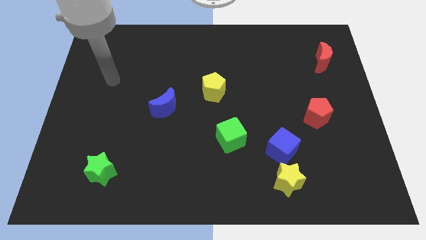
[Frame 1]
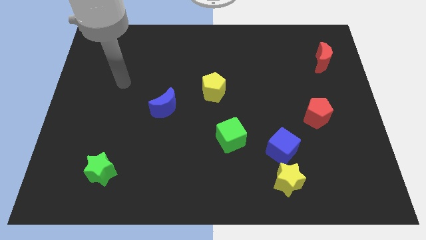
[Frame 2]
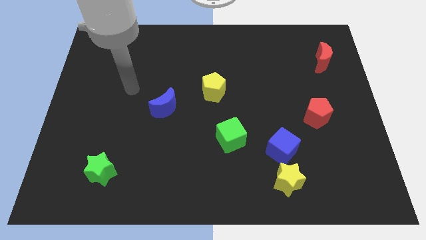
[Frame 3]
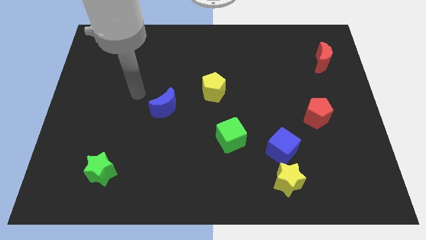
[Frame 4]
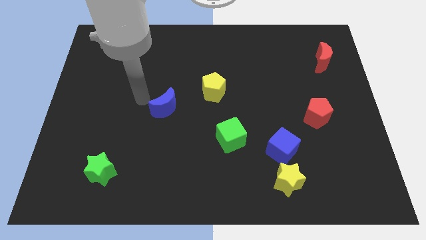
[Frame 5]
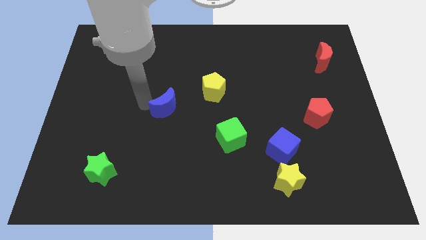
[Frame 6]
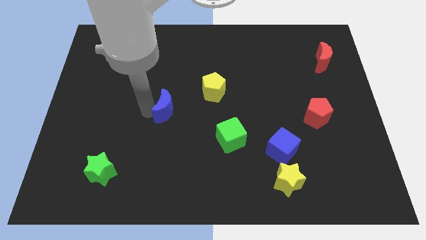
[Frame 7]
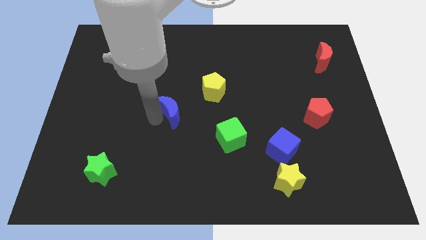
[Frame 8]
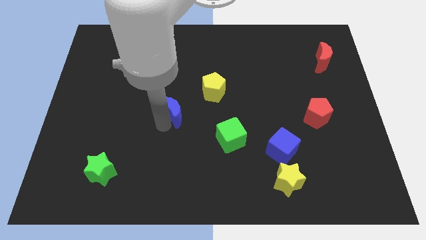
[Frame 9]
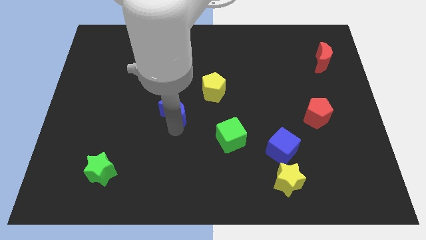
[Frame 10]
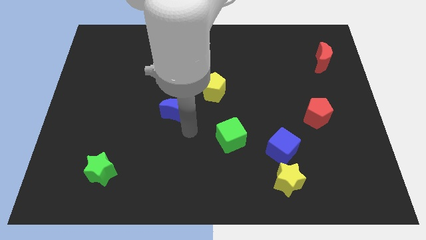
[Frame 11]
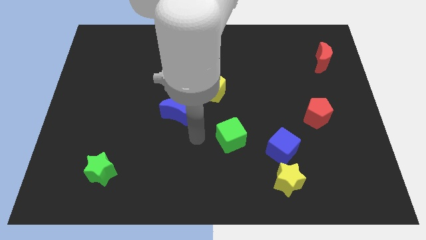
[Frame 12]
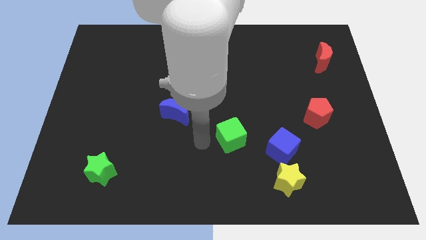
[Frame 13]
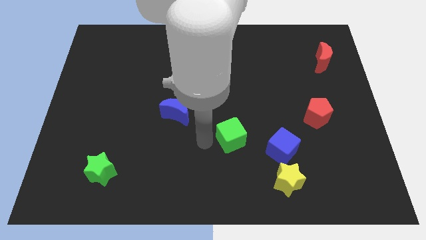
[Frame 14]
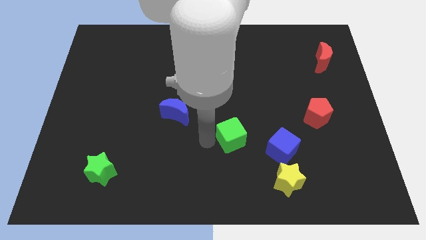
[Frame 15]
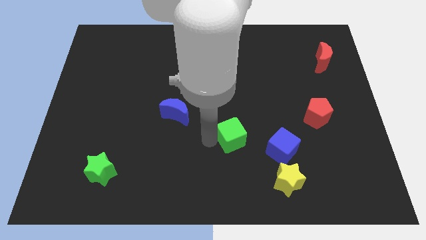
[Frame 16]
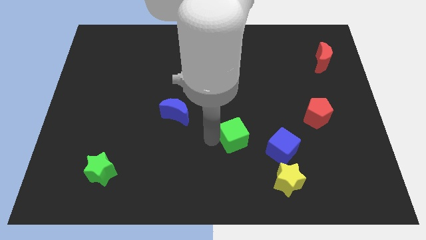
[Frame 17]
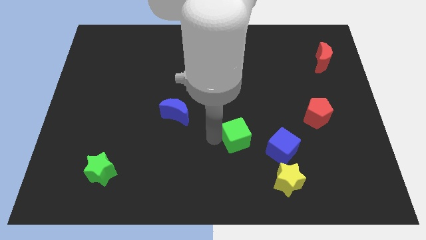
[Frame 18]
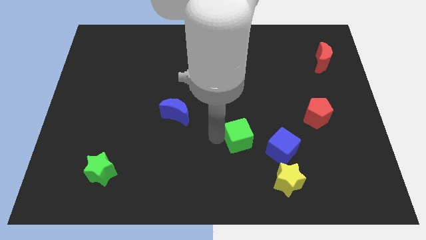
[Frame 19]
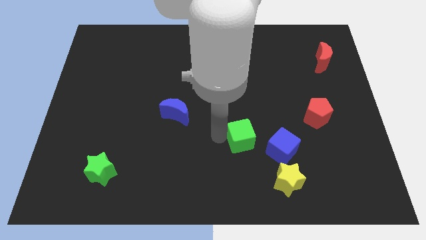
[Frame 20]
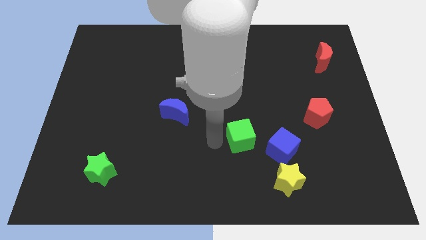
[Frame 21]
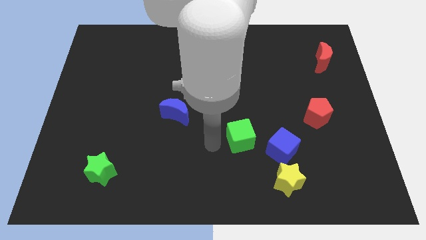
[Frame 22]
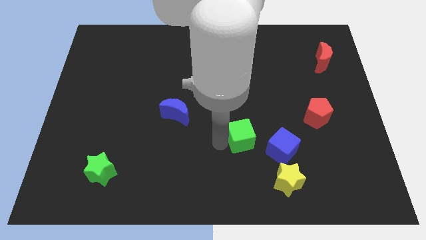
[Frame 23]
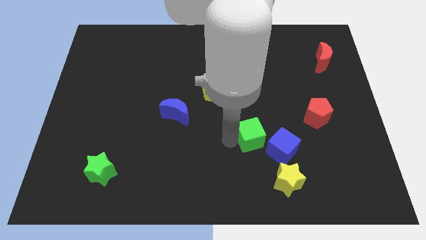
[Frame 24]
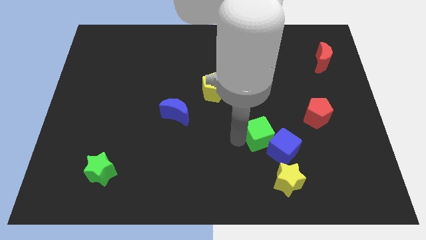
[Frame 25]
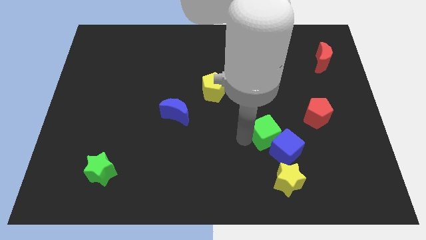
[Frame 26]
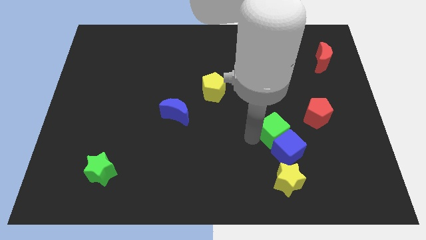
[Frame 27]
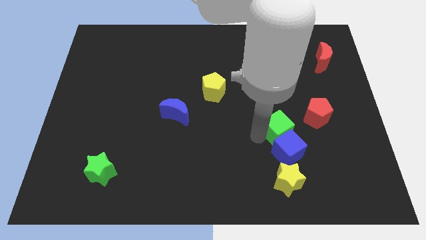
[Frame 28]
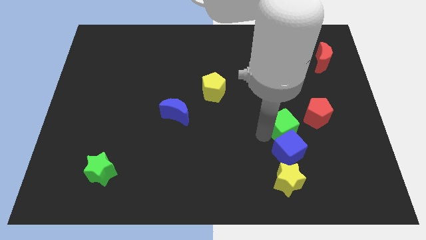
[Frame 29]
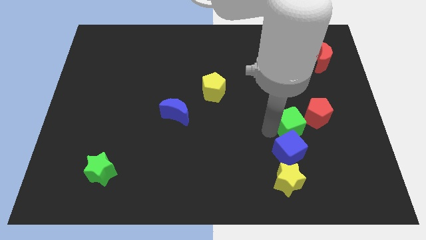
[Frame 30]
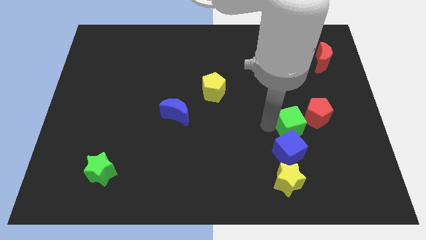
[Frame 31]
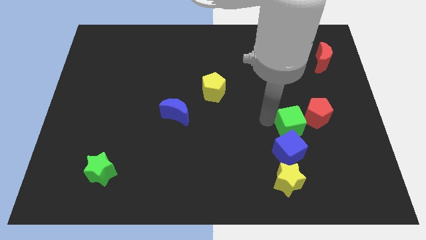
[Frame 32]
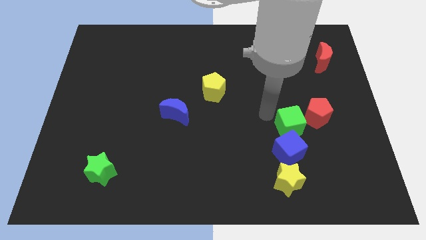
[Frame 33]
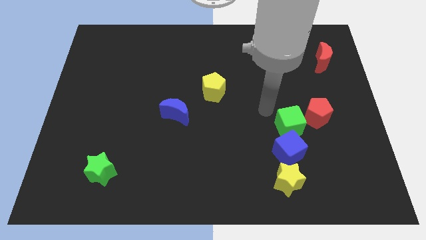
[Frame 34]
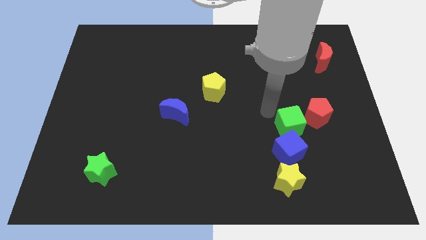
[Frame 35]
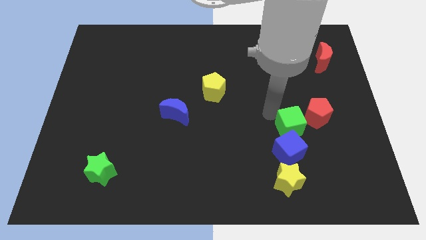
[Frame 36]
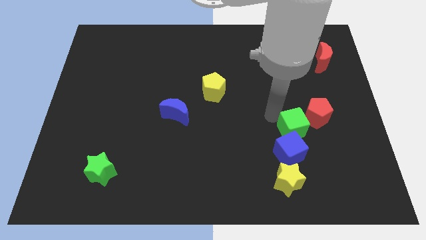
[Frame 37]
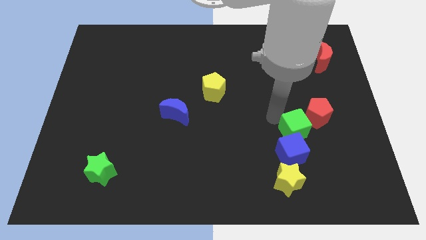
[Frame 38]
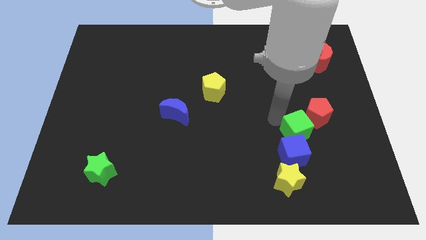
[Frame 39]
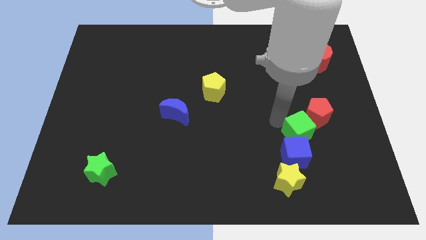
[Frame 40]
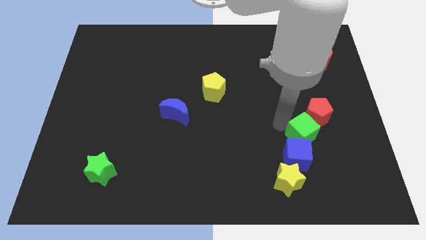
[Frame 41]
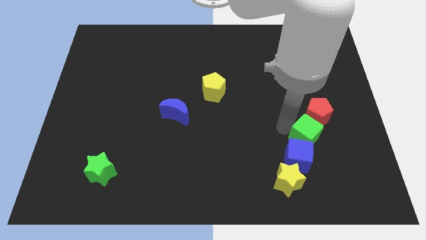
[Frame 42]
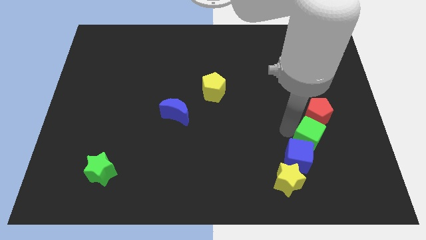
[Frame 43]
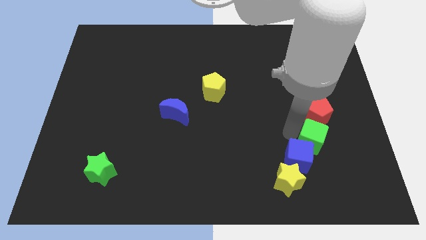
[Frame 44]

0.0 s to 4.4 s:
slide the green cube just right of the blue cube

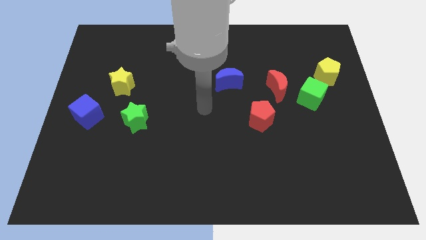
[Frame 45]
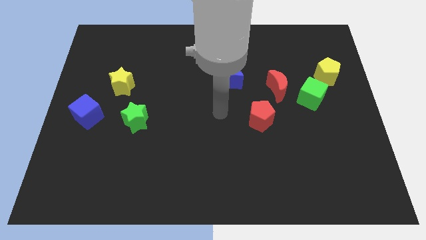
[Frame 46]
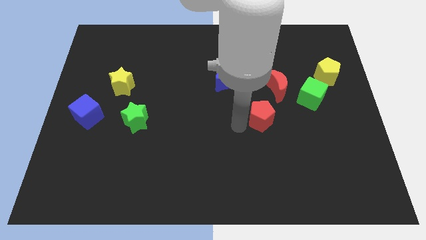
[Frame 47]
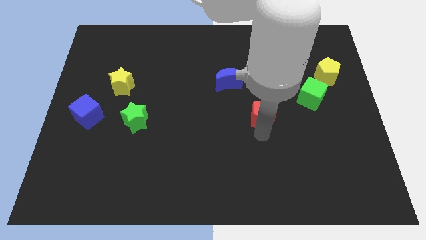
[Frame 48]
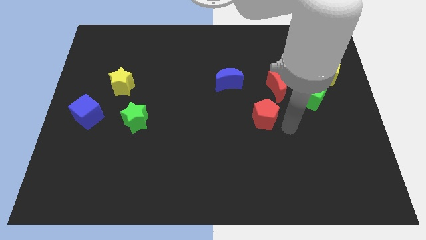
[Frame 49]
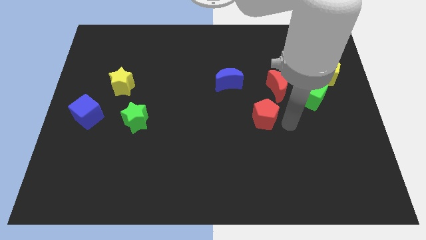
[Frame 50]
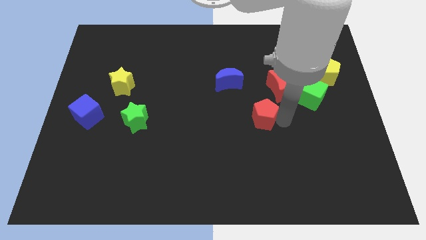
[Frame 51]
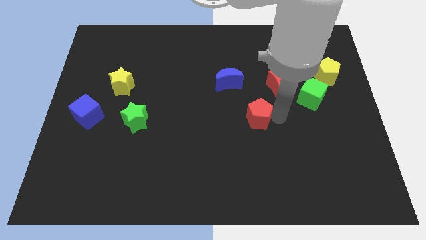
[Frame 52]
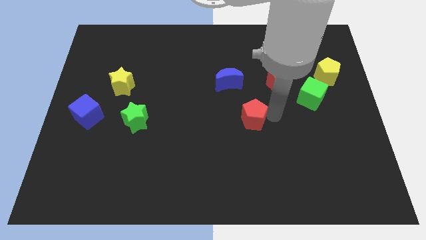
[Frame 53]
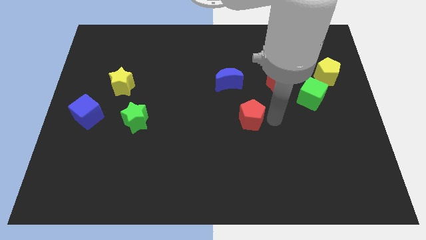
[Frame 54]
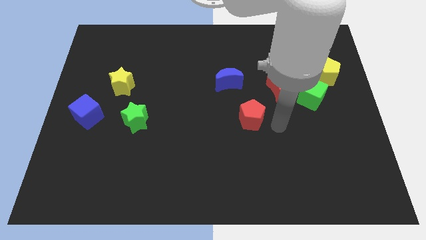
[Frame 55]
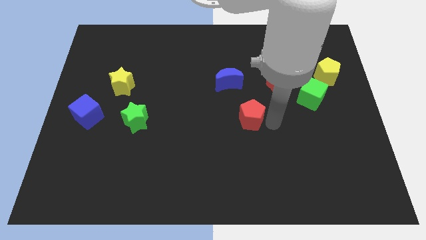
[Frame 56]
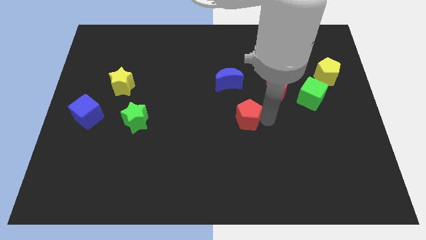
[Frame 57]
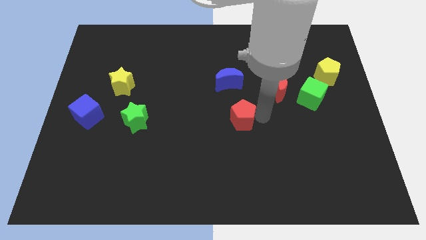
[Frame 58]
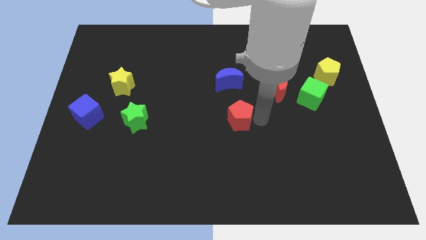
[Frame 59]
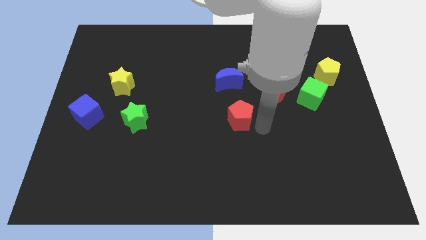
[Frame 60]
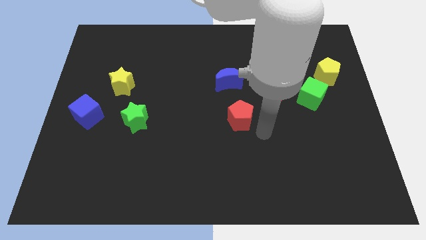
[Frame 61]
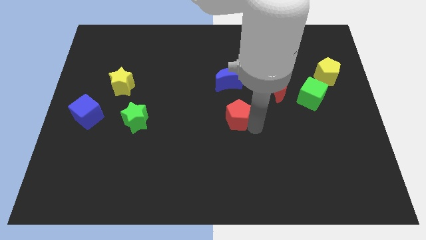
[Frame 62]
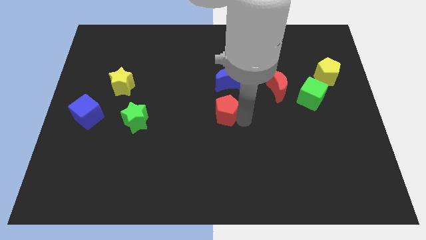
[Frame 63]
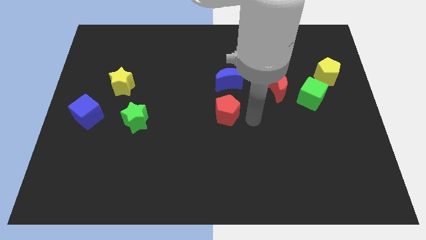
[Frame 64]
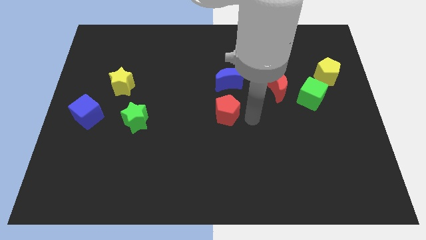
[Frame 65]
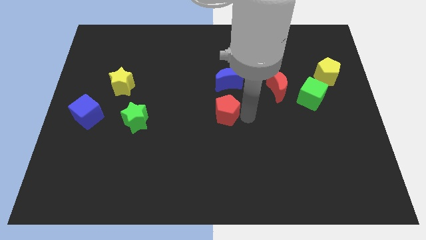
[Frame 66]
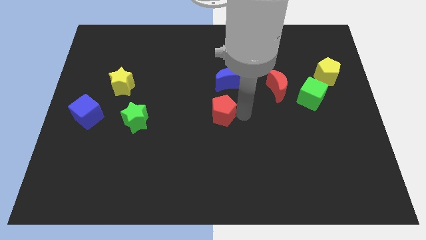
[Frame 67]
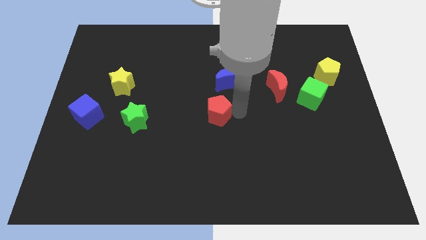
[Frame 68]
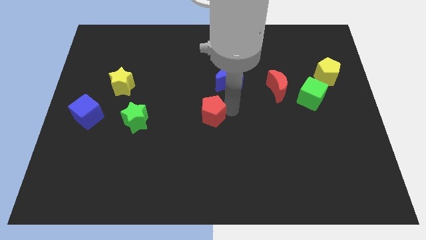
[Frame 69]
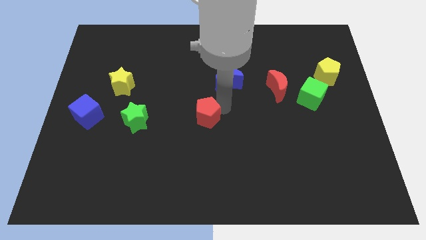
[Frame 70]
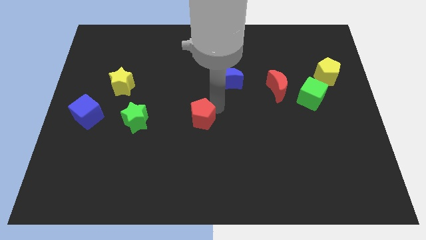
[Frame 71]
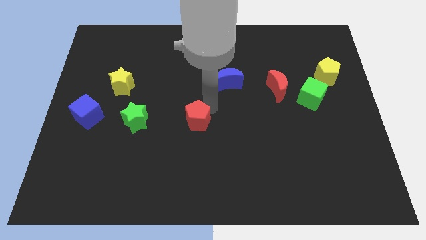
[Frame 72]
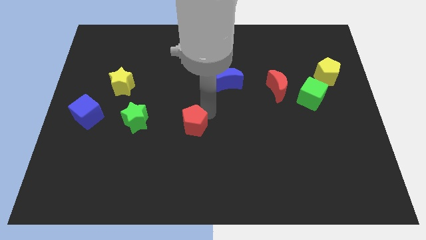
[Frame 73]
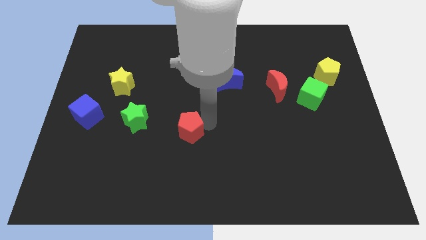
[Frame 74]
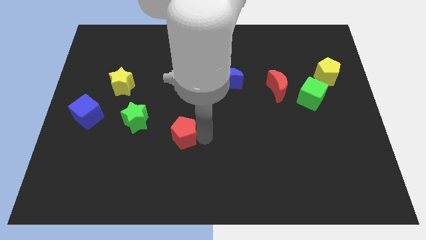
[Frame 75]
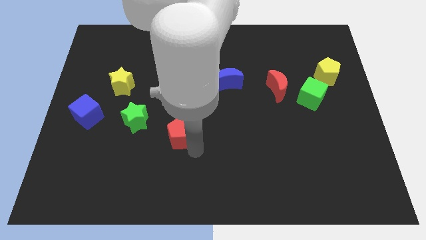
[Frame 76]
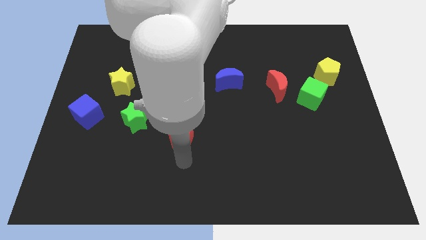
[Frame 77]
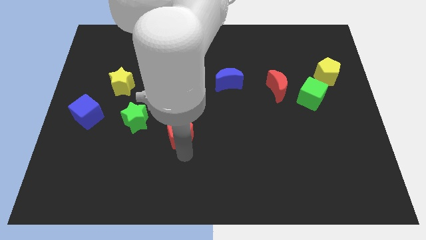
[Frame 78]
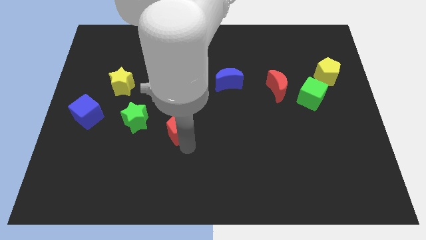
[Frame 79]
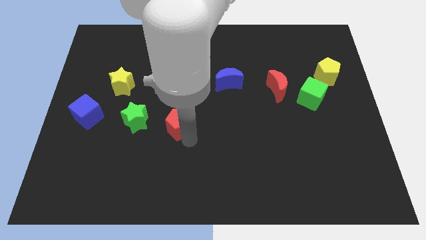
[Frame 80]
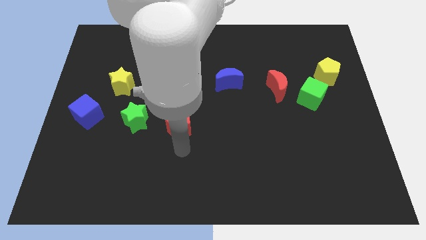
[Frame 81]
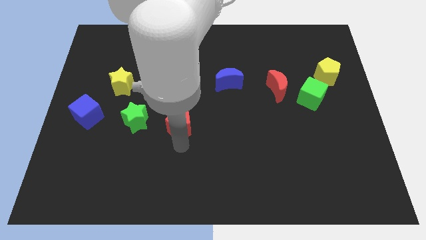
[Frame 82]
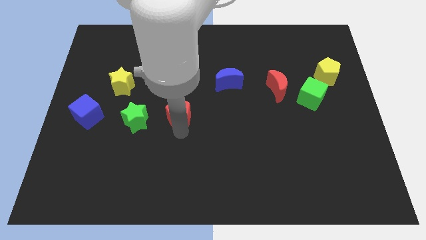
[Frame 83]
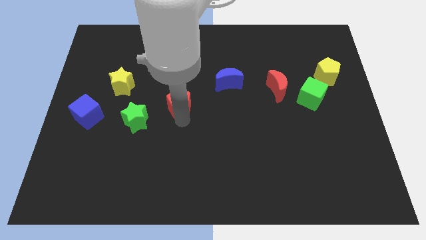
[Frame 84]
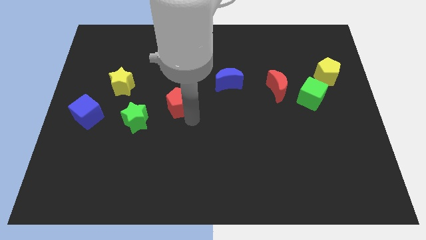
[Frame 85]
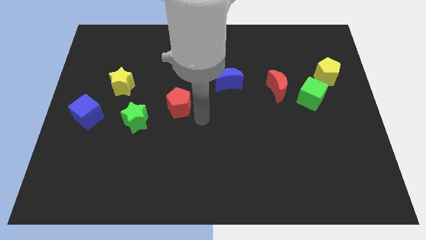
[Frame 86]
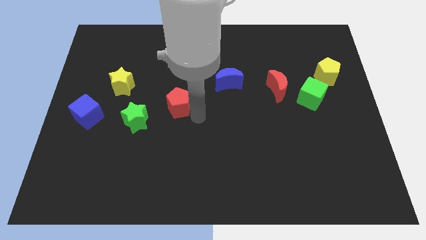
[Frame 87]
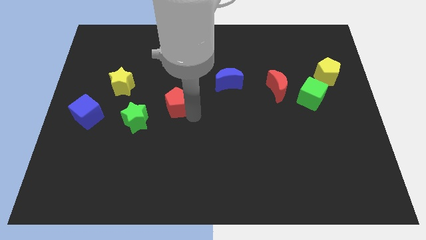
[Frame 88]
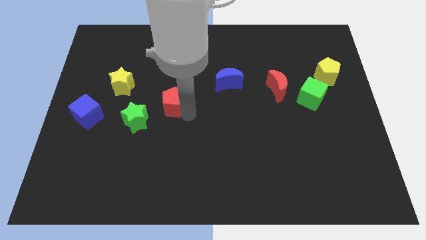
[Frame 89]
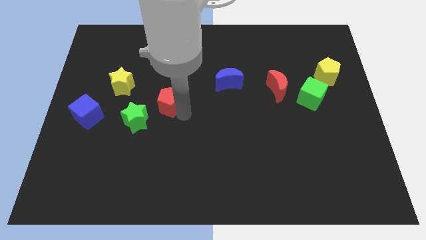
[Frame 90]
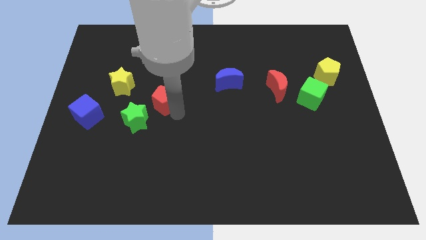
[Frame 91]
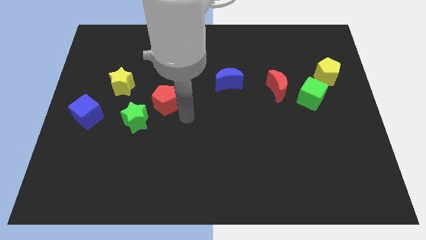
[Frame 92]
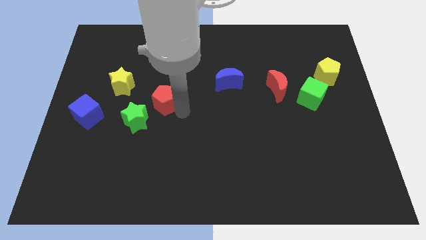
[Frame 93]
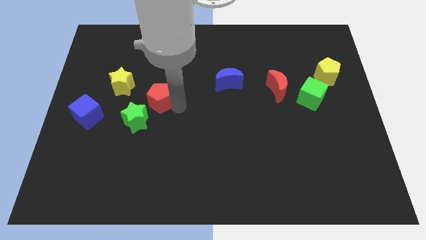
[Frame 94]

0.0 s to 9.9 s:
slide the red pentagon to the top side of the green star
